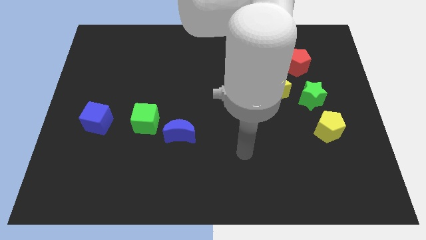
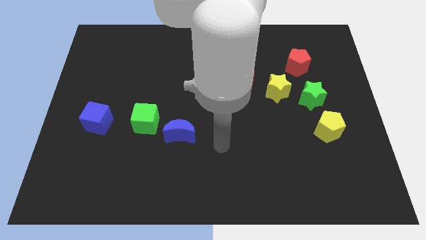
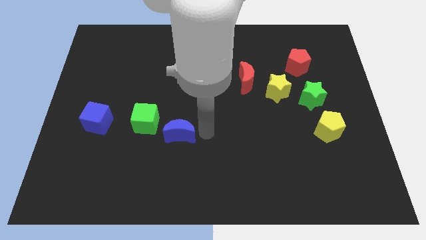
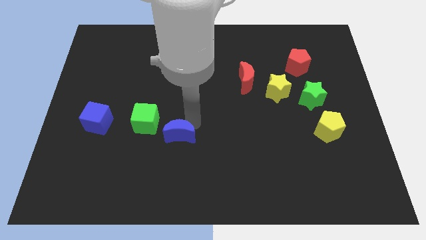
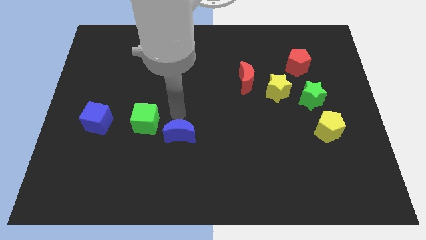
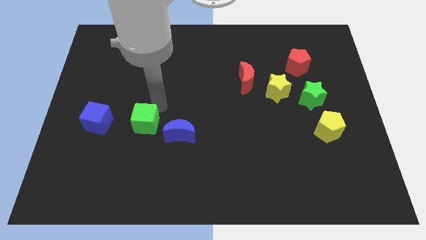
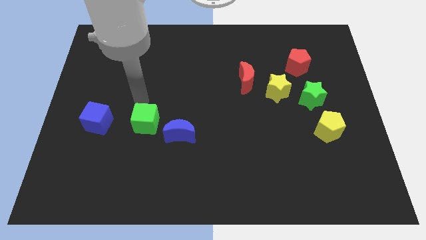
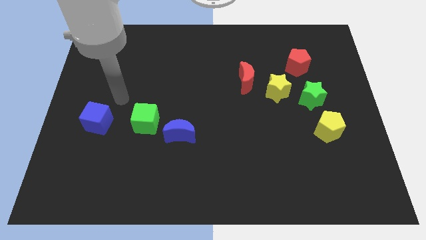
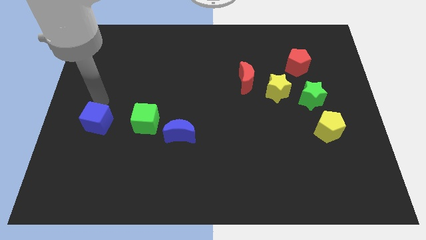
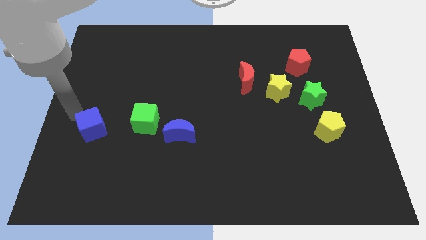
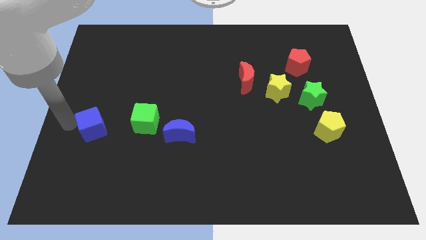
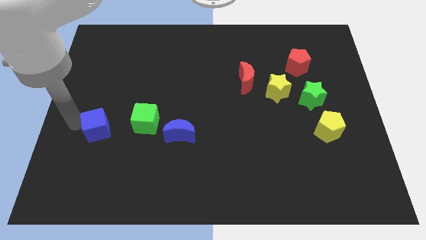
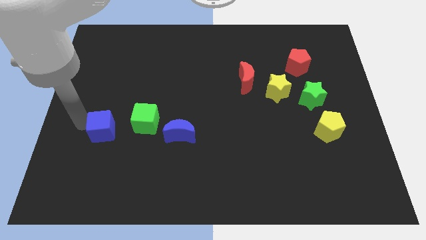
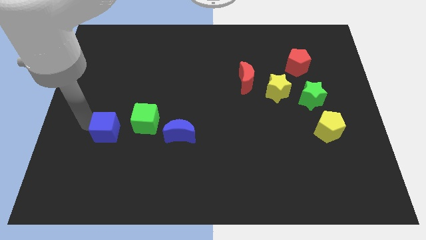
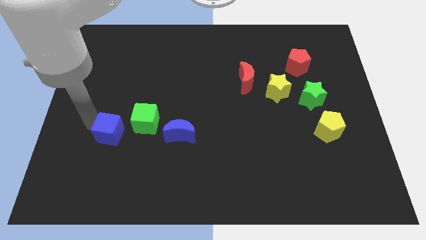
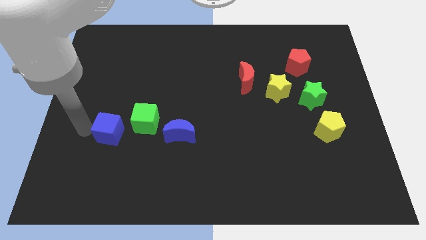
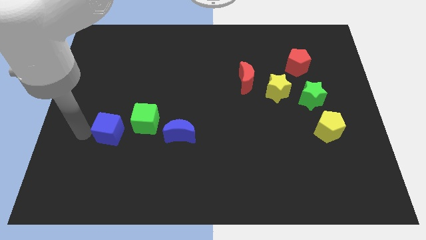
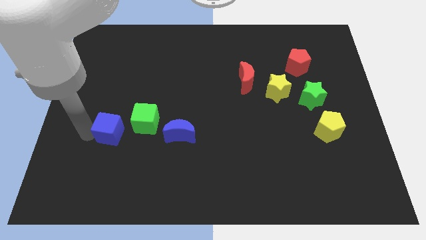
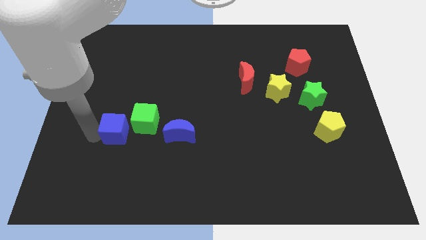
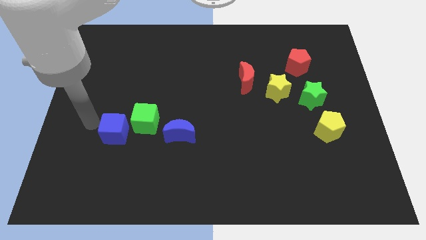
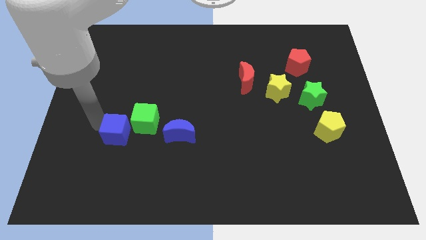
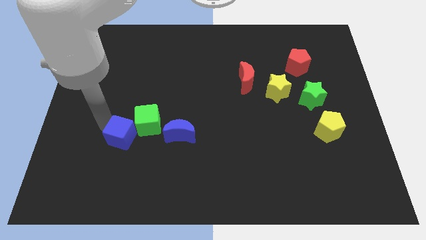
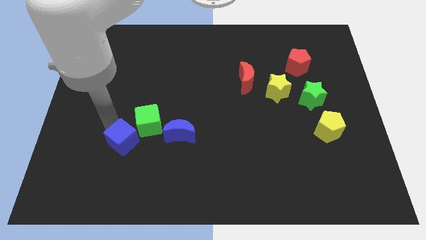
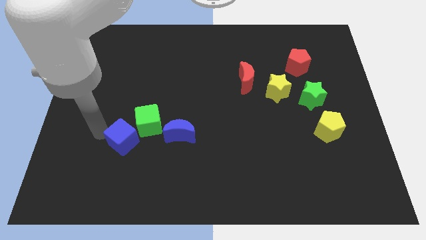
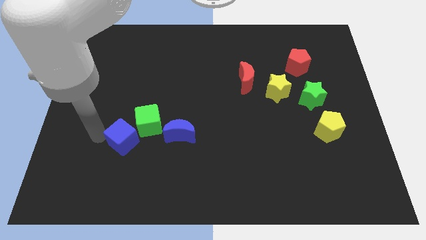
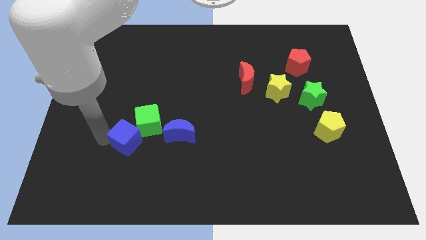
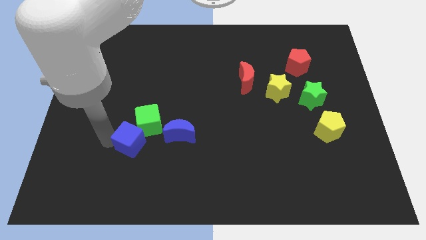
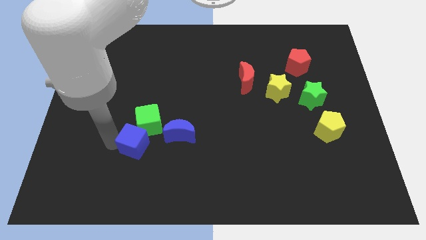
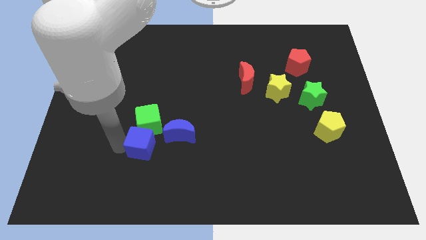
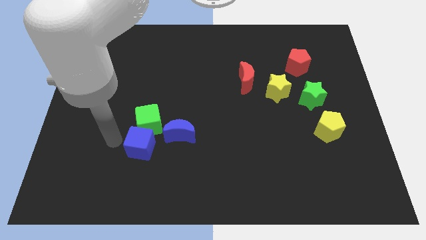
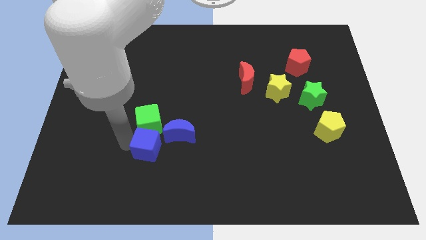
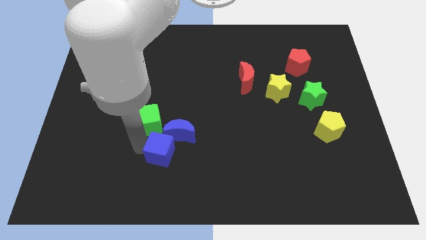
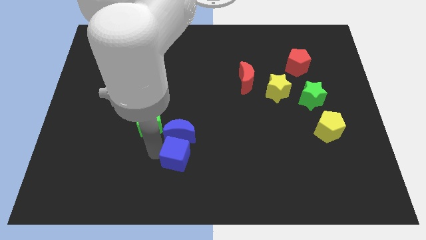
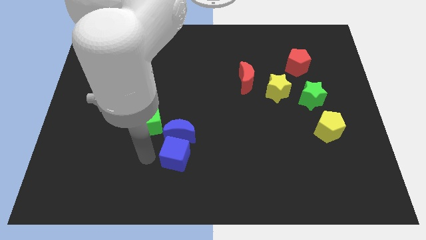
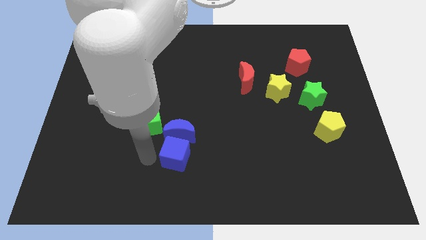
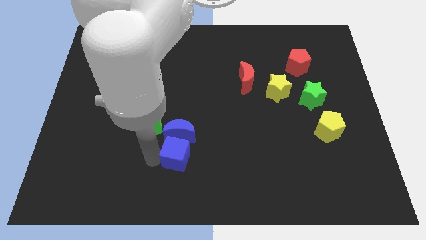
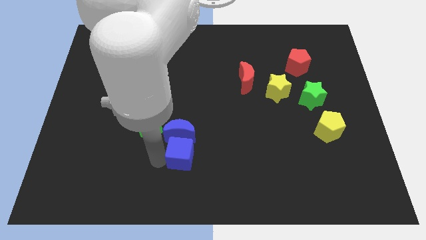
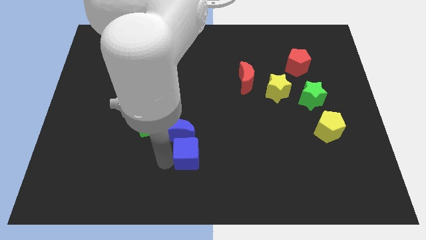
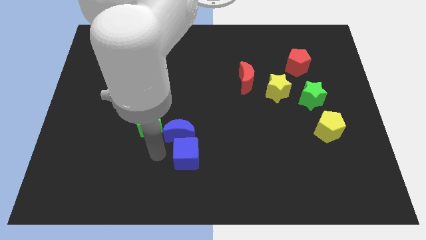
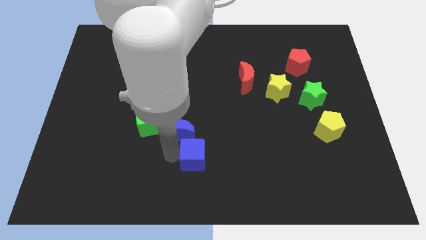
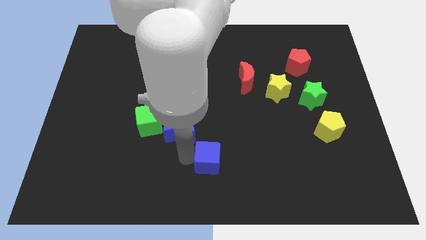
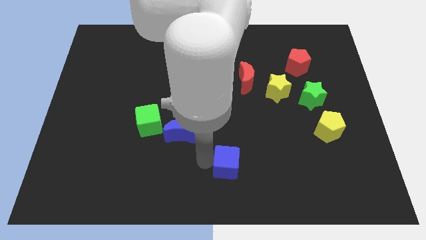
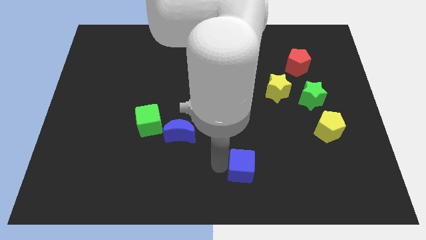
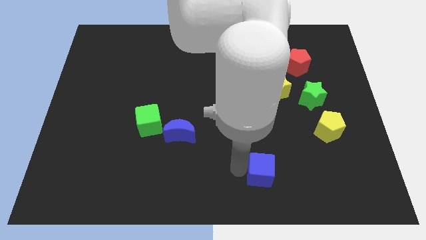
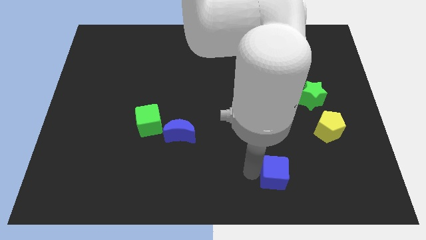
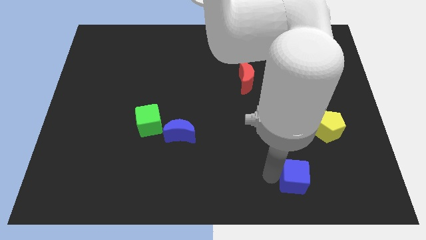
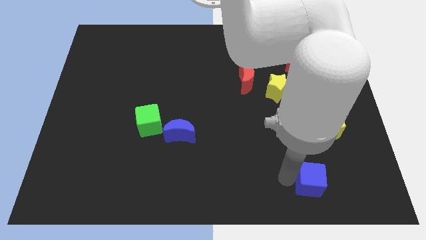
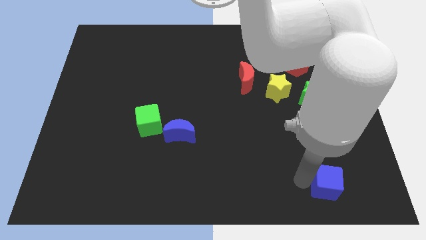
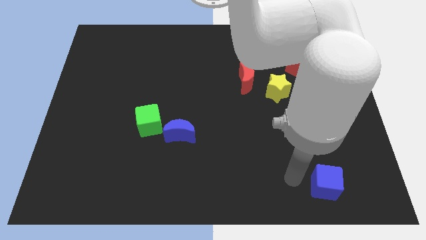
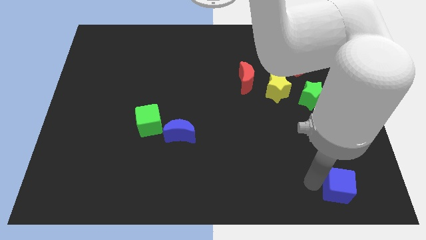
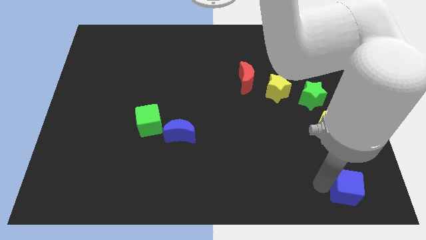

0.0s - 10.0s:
move the blue cube to the bottom right corner

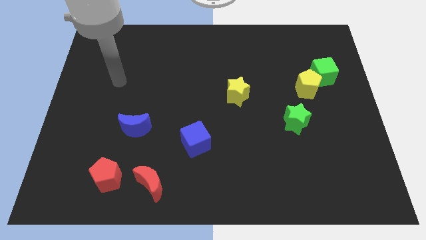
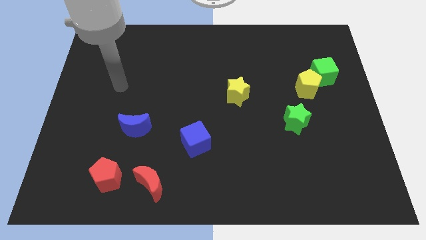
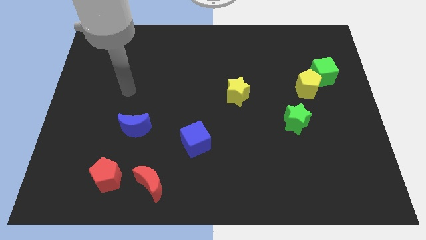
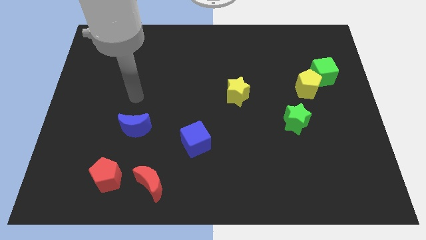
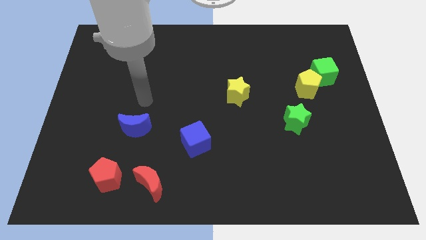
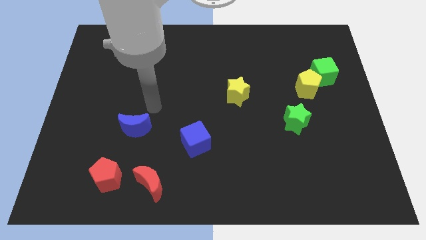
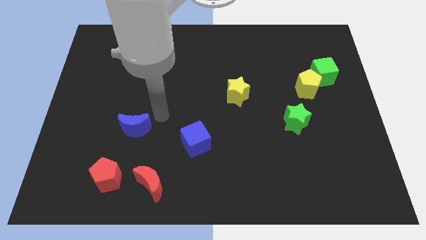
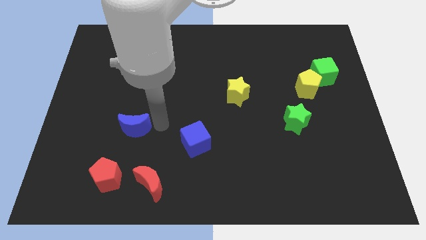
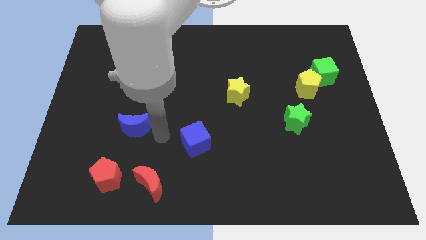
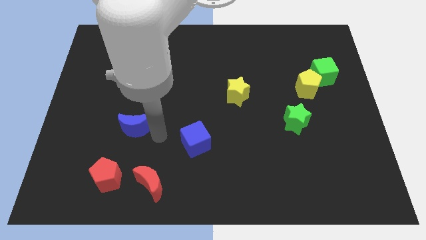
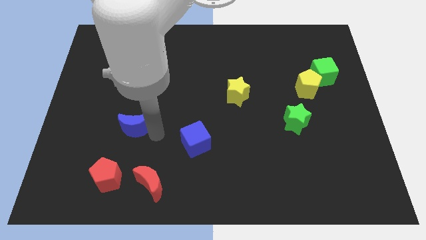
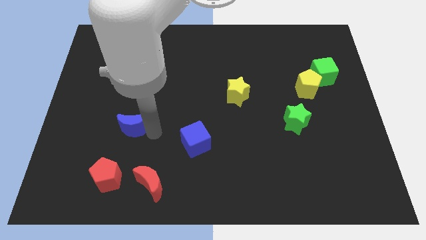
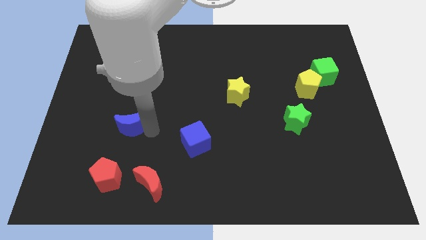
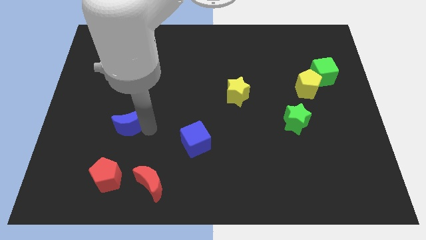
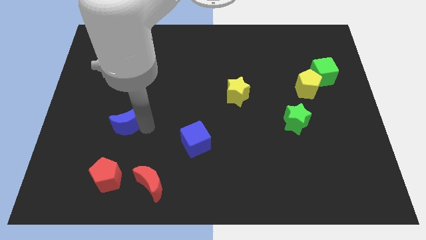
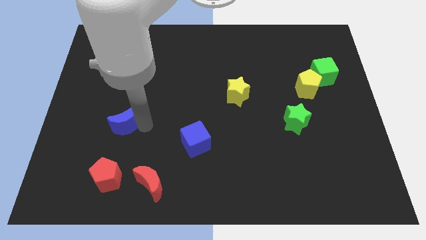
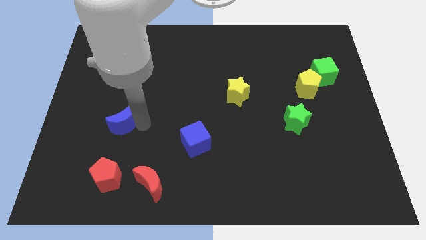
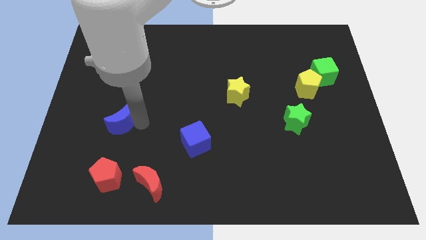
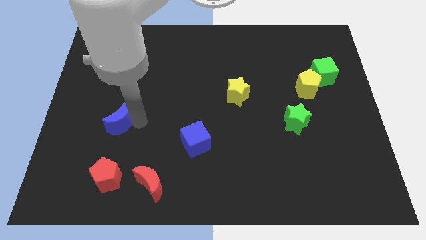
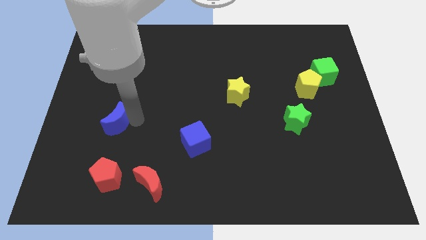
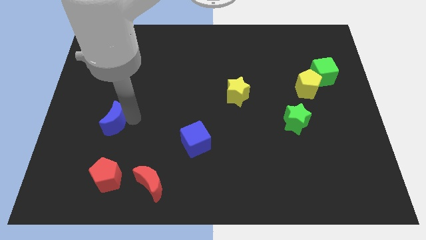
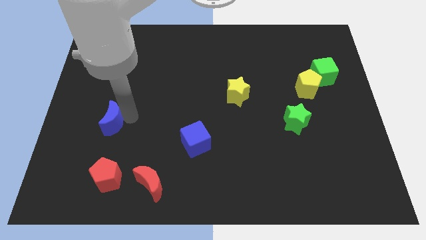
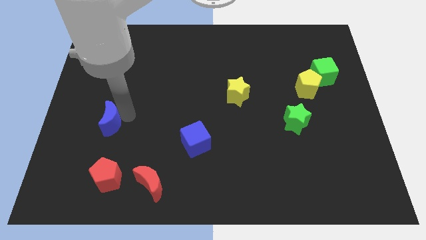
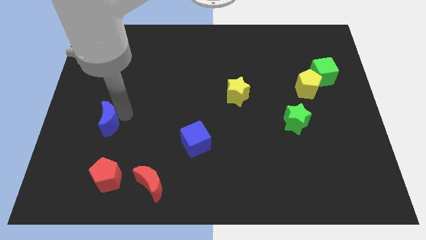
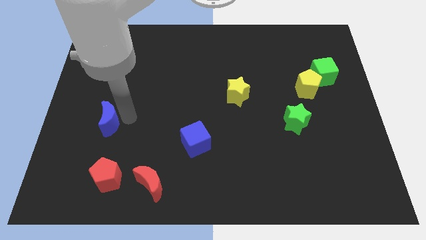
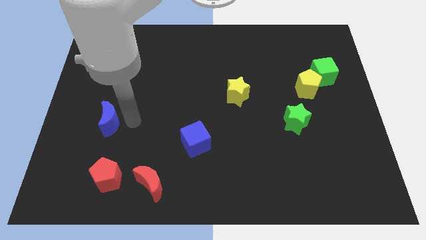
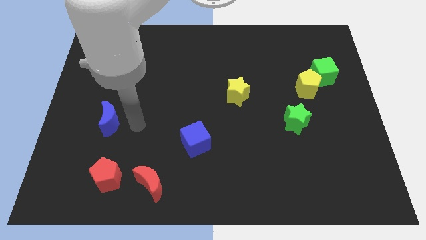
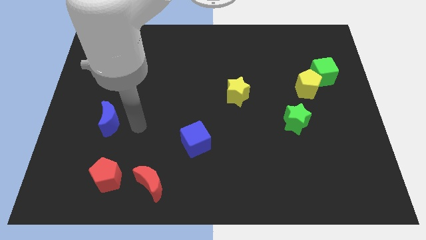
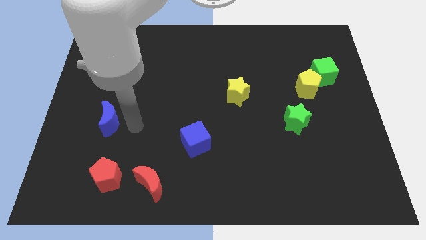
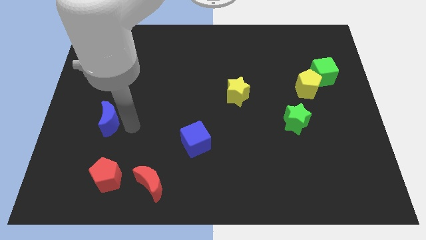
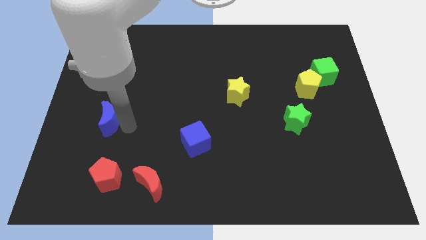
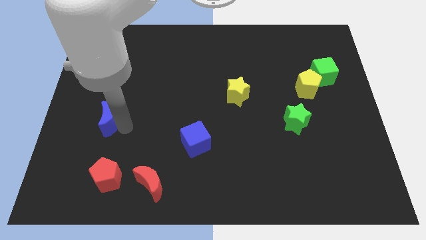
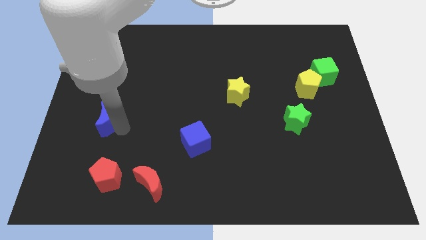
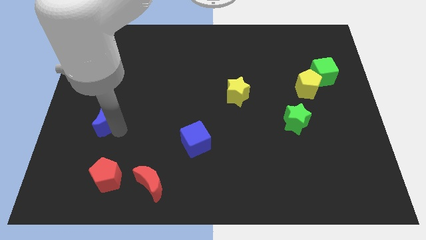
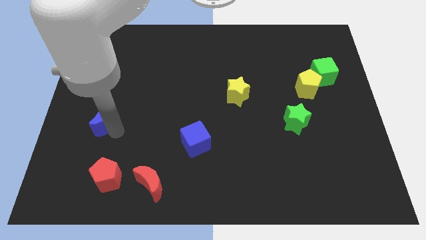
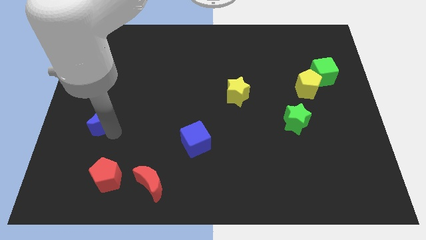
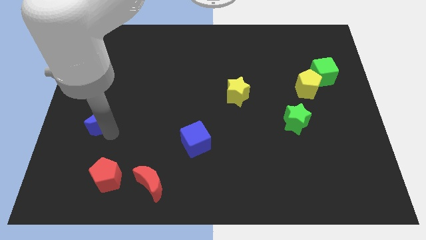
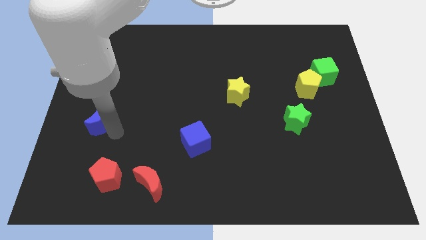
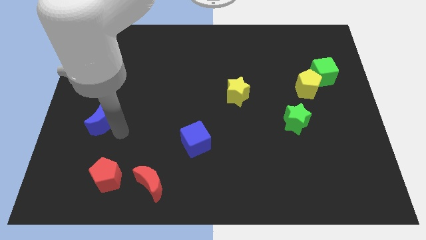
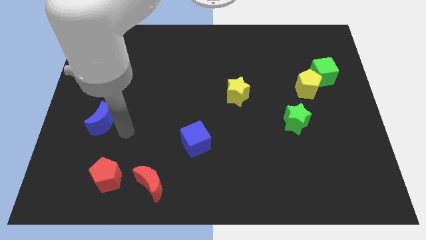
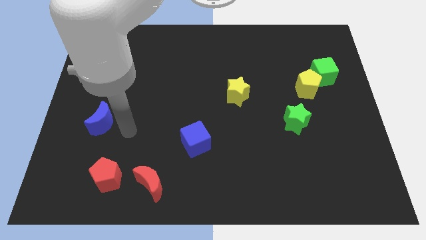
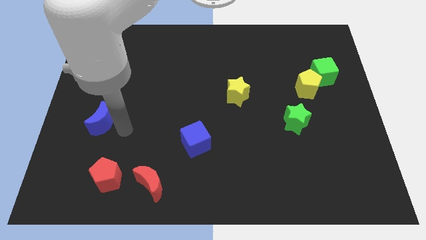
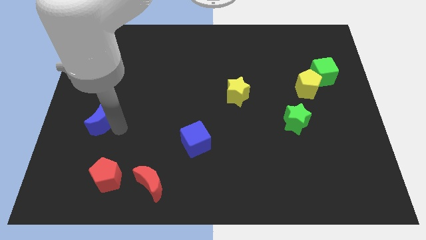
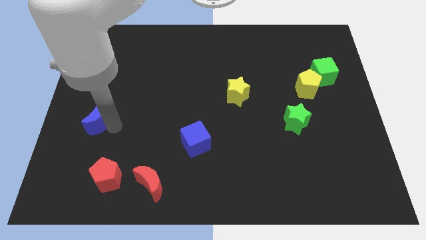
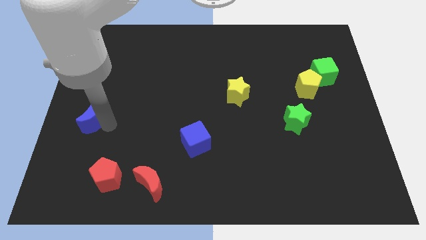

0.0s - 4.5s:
move the blue moon to the left side
